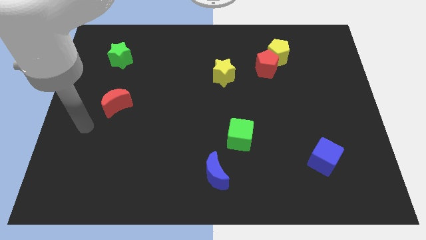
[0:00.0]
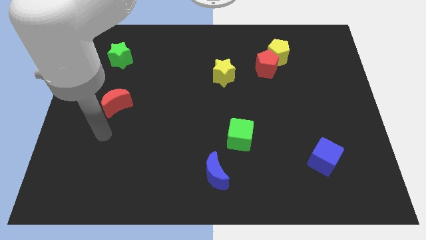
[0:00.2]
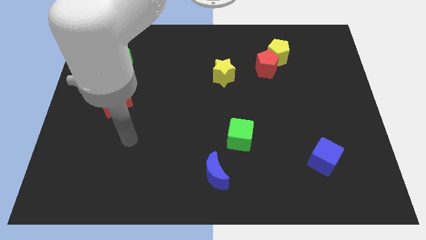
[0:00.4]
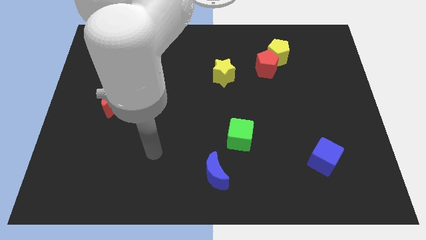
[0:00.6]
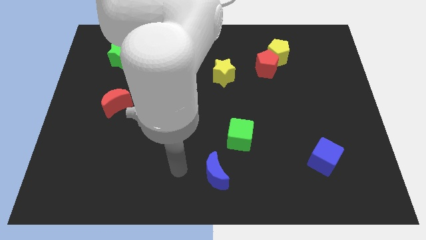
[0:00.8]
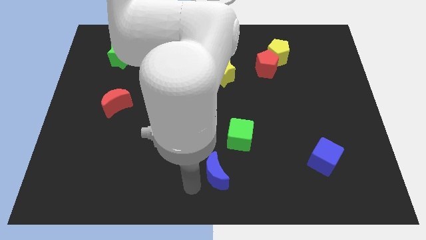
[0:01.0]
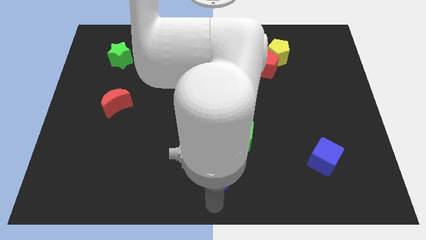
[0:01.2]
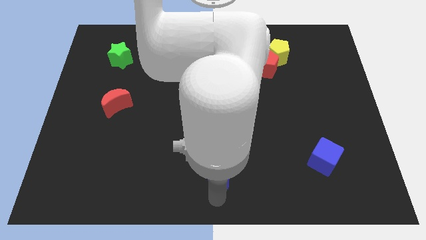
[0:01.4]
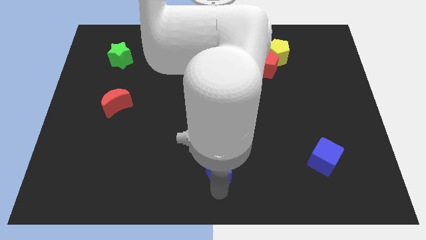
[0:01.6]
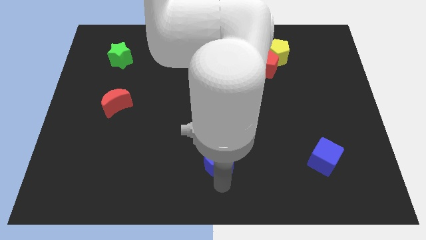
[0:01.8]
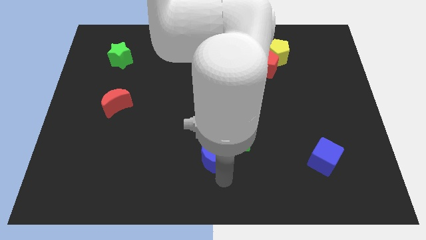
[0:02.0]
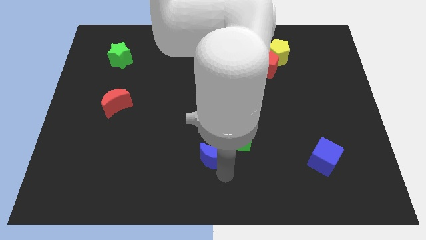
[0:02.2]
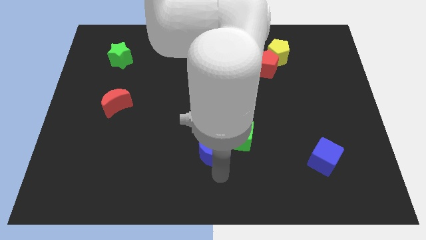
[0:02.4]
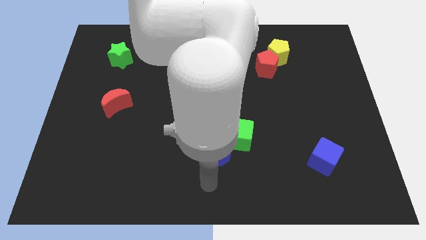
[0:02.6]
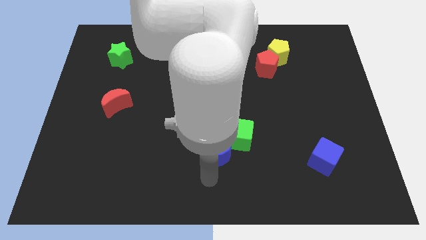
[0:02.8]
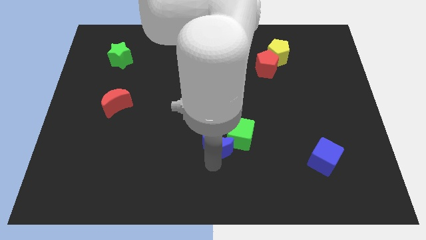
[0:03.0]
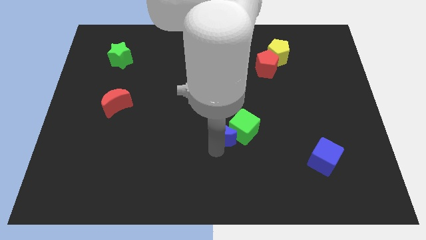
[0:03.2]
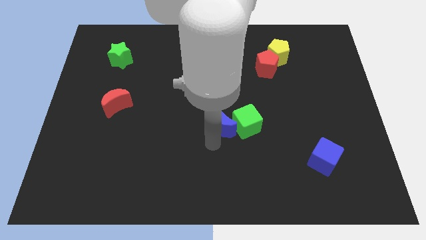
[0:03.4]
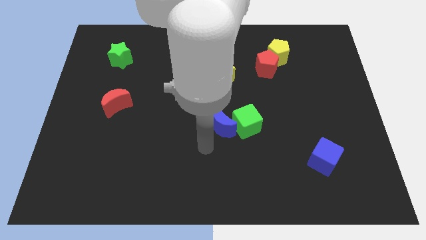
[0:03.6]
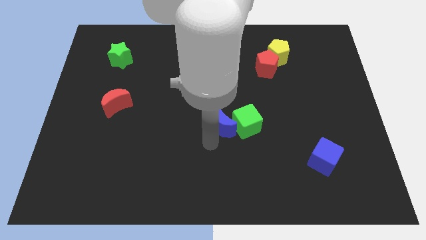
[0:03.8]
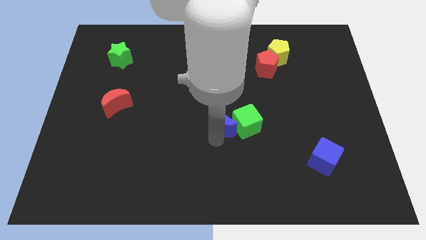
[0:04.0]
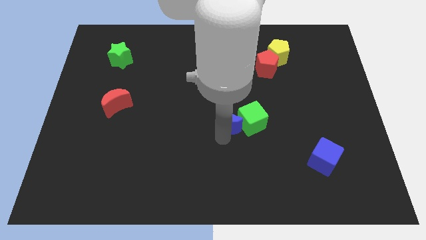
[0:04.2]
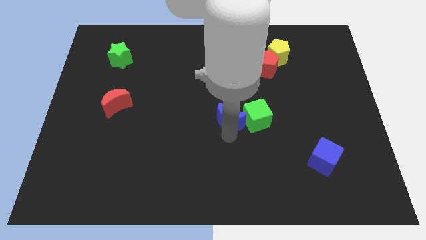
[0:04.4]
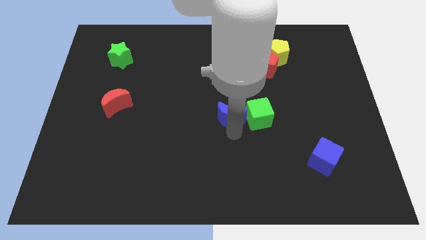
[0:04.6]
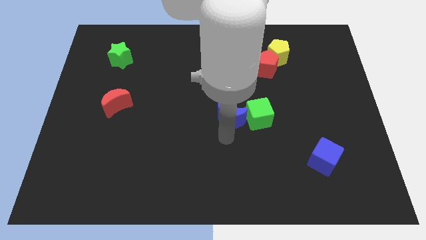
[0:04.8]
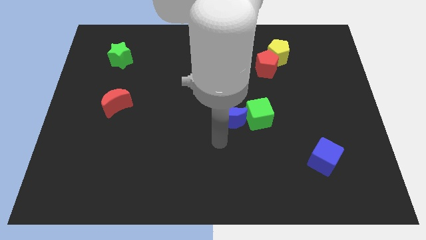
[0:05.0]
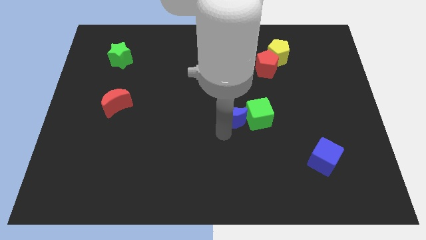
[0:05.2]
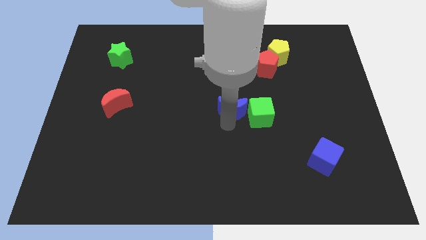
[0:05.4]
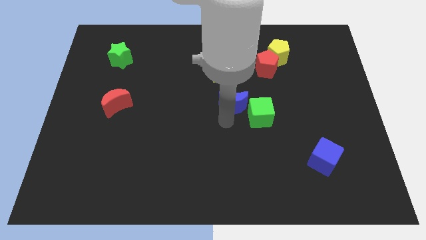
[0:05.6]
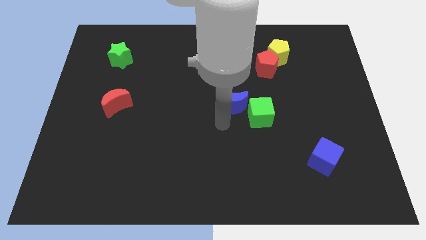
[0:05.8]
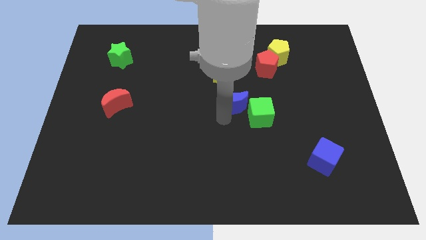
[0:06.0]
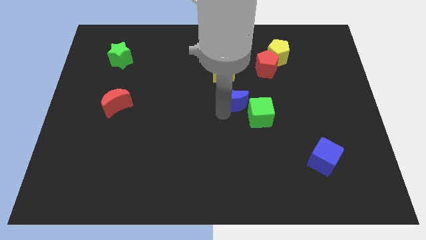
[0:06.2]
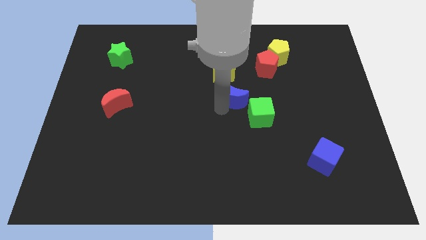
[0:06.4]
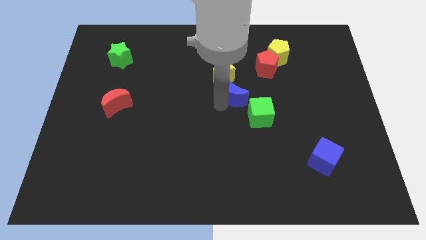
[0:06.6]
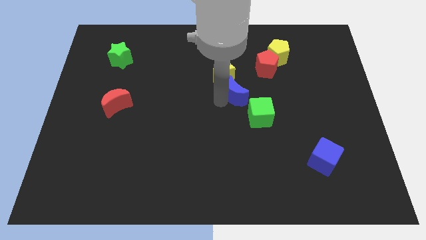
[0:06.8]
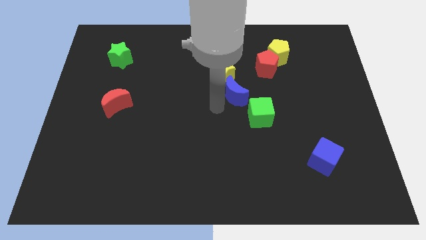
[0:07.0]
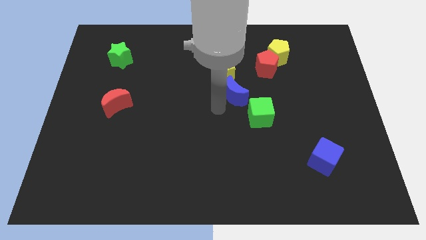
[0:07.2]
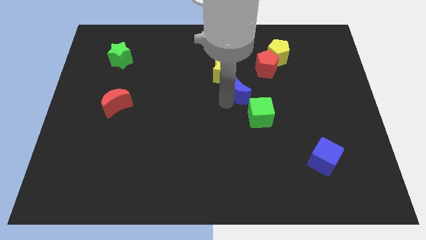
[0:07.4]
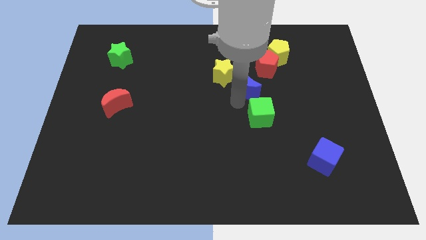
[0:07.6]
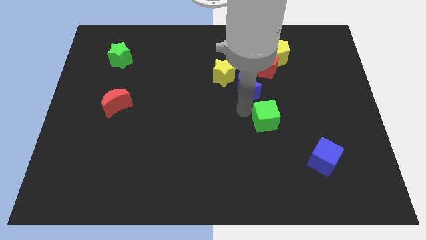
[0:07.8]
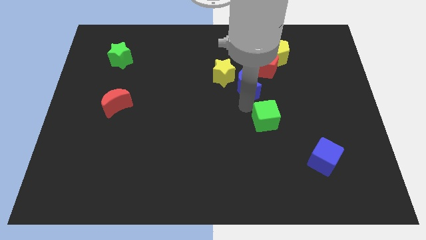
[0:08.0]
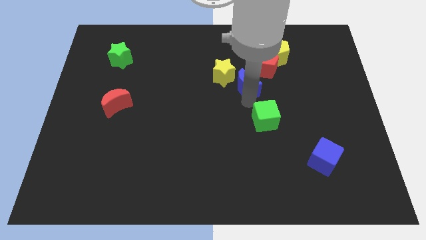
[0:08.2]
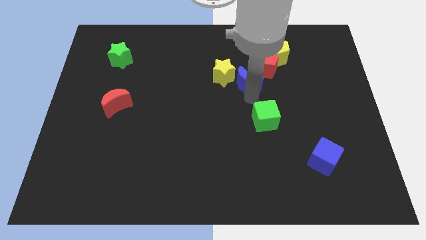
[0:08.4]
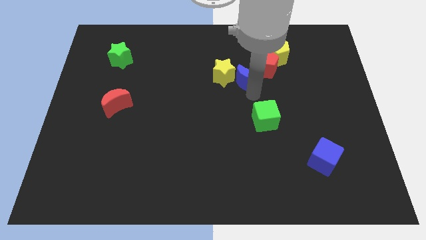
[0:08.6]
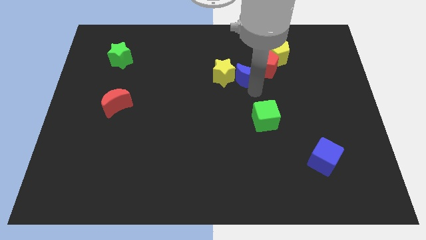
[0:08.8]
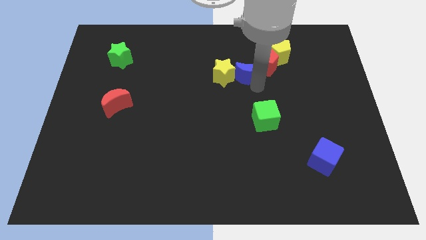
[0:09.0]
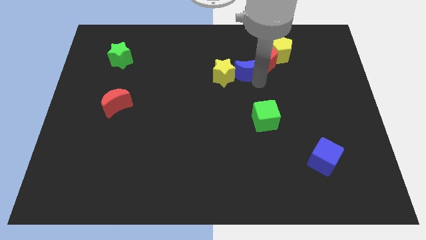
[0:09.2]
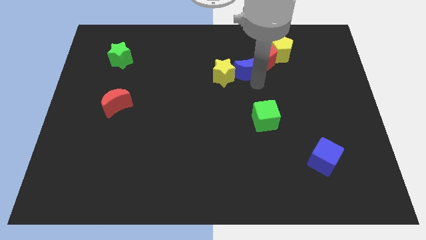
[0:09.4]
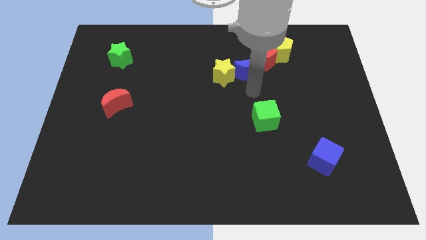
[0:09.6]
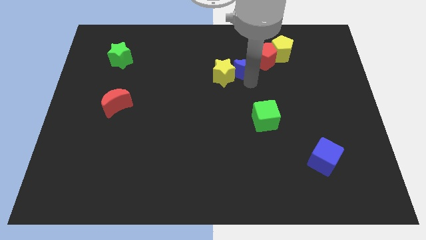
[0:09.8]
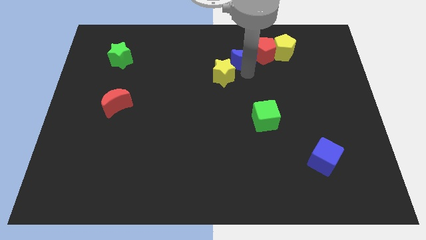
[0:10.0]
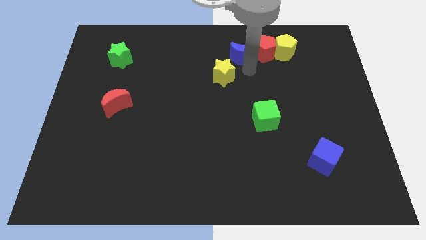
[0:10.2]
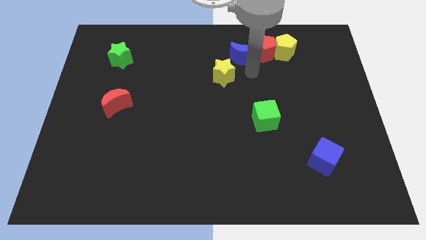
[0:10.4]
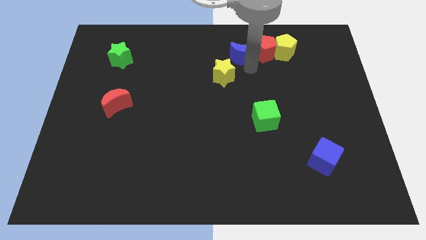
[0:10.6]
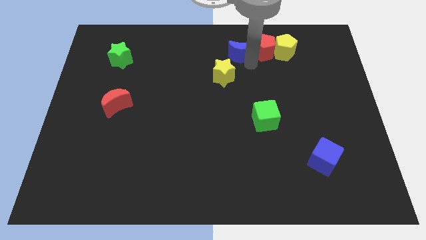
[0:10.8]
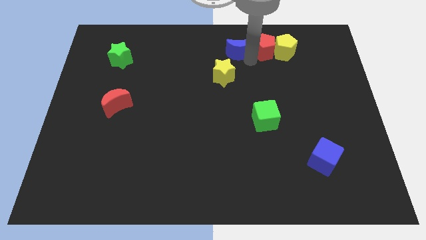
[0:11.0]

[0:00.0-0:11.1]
push the blue moon to the towards your base

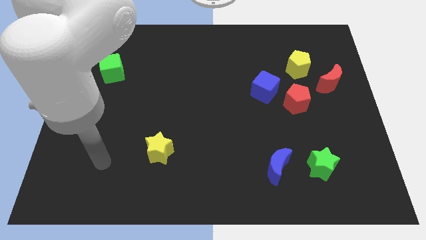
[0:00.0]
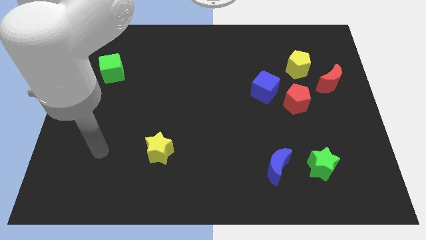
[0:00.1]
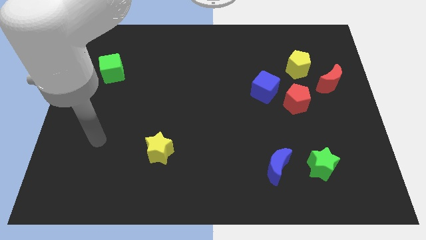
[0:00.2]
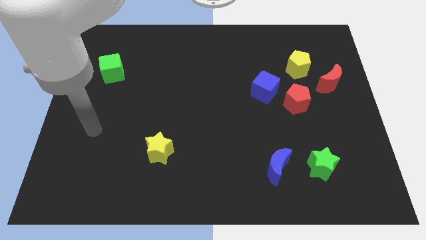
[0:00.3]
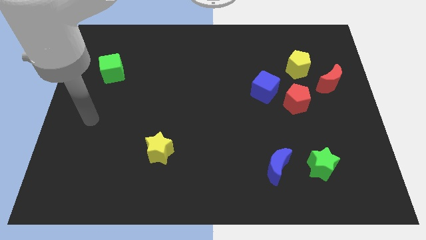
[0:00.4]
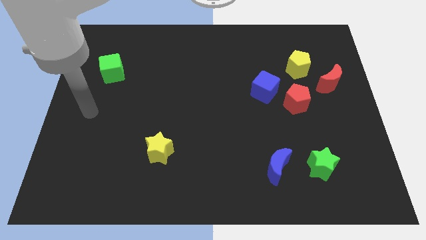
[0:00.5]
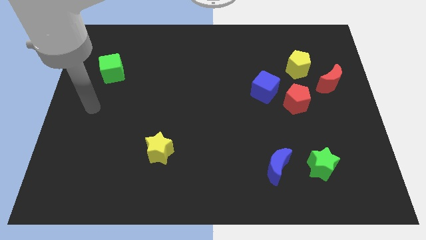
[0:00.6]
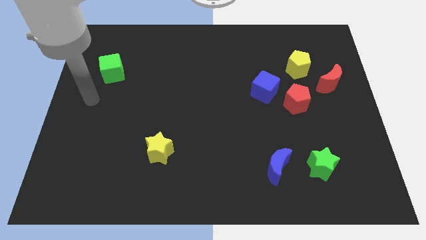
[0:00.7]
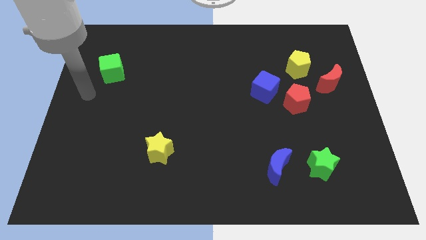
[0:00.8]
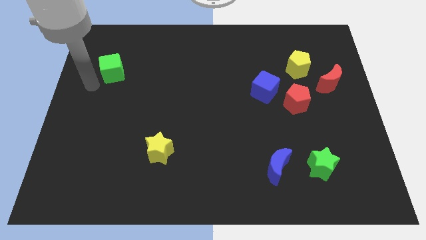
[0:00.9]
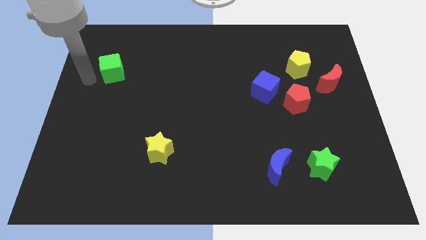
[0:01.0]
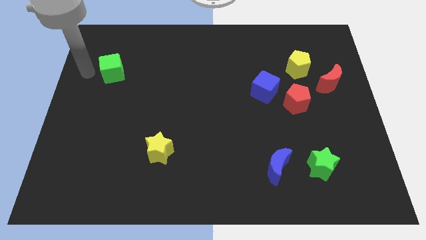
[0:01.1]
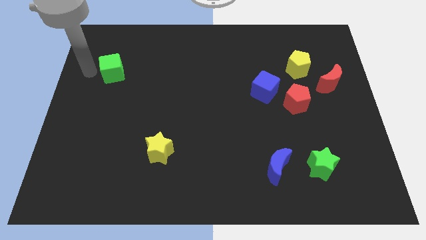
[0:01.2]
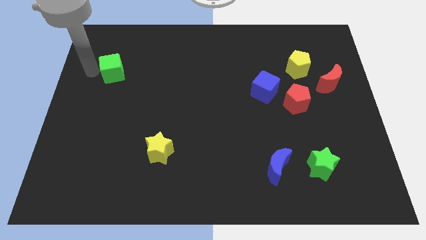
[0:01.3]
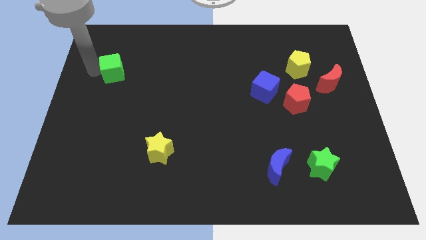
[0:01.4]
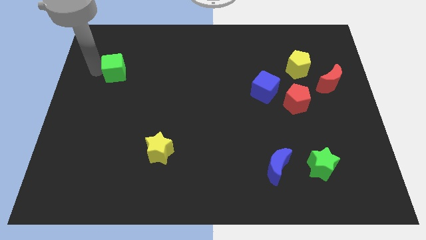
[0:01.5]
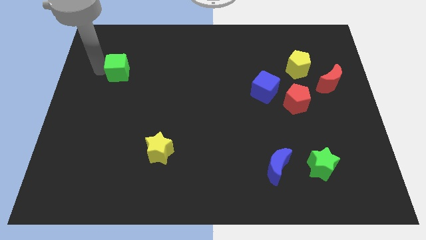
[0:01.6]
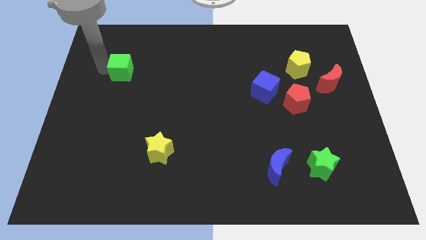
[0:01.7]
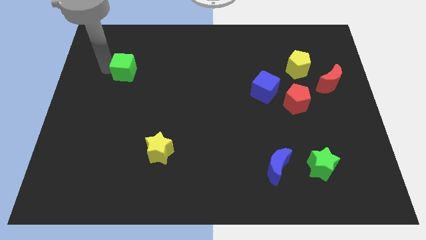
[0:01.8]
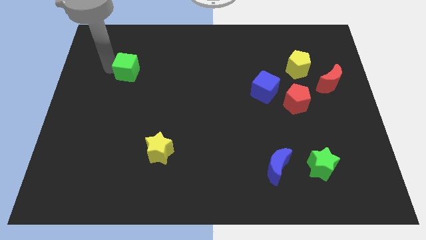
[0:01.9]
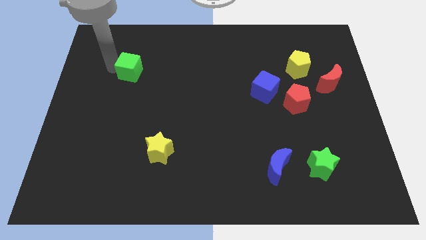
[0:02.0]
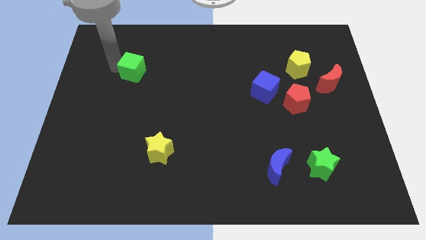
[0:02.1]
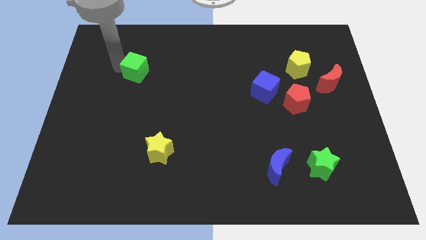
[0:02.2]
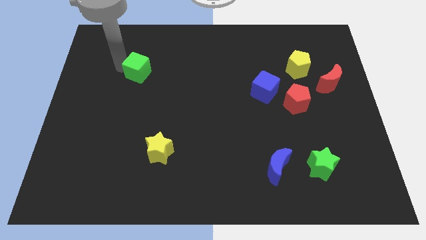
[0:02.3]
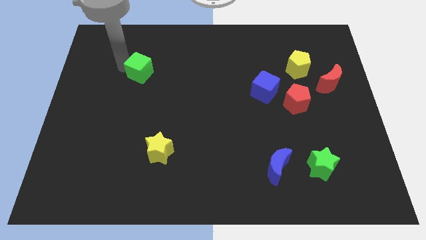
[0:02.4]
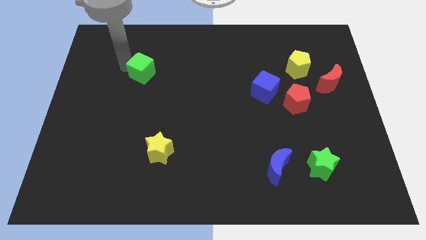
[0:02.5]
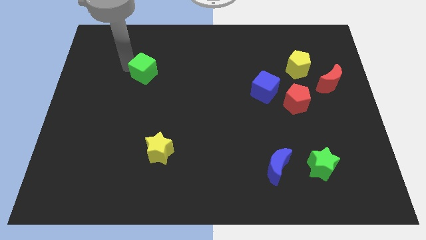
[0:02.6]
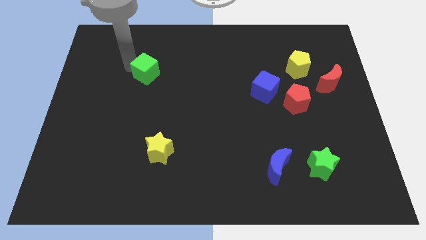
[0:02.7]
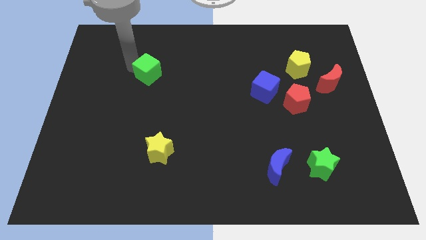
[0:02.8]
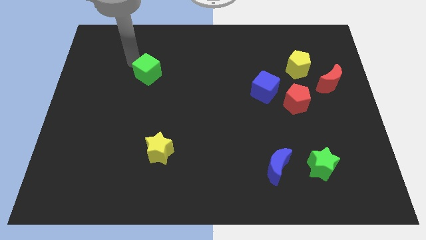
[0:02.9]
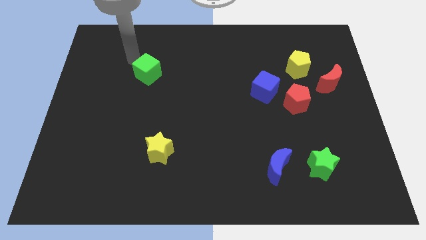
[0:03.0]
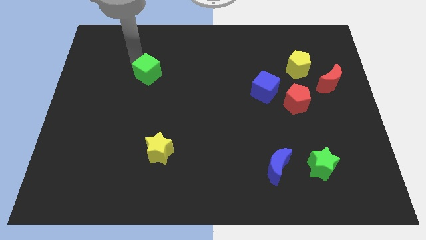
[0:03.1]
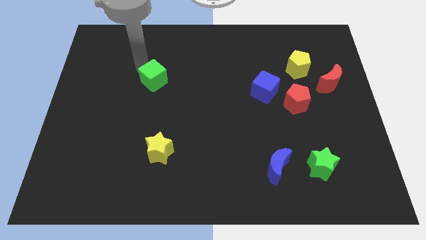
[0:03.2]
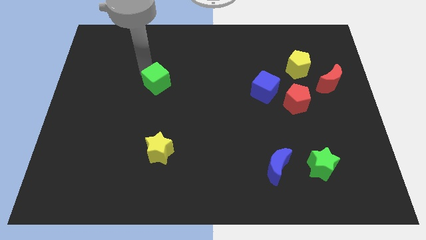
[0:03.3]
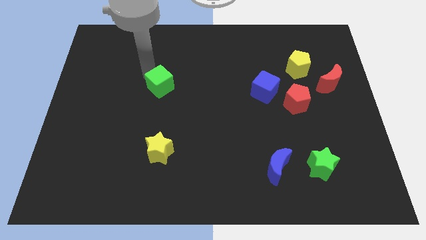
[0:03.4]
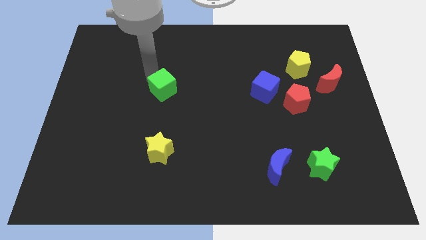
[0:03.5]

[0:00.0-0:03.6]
push the green cube to the middle
